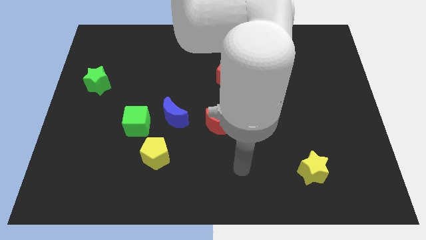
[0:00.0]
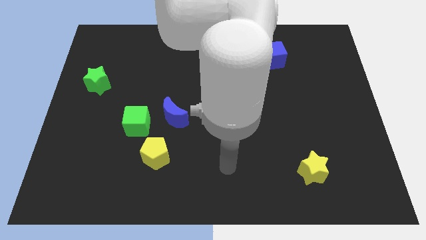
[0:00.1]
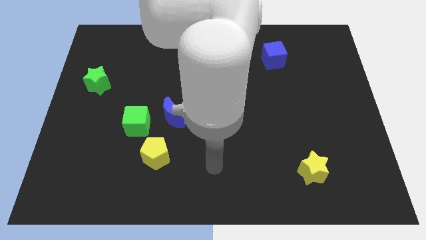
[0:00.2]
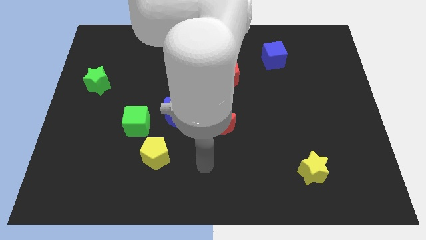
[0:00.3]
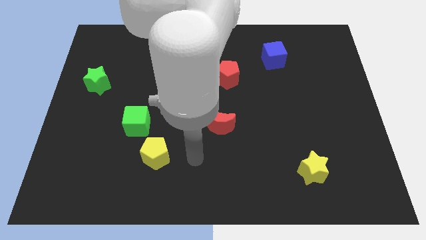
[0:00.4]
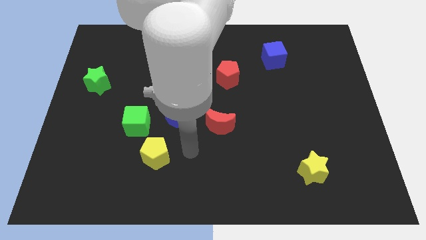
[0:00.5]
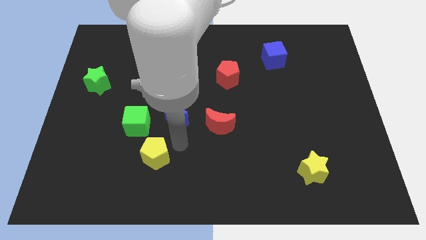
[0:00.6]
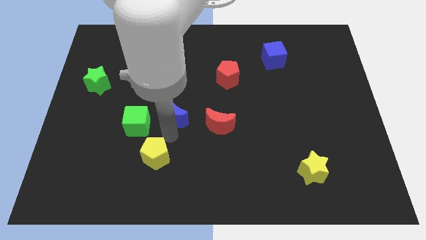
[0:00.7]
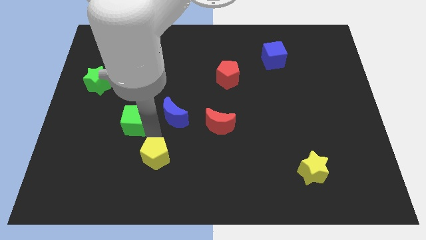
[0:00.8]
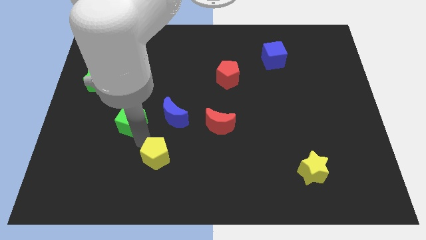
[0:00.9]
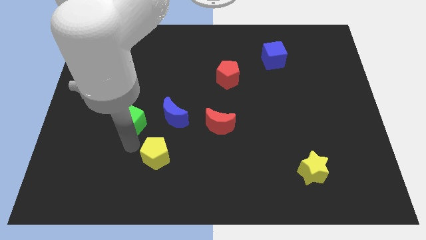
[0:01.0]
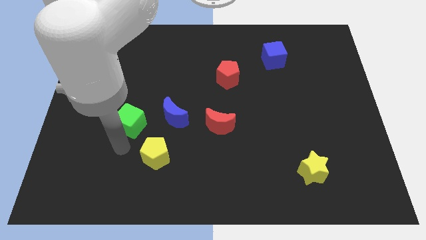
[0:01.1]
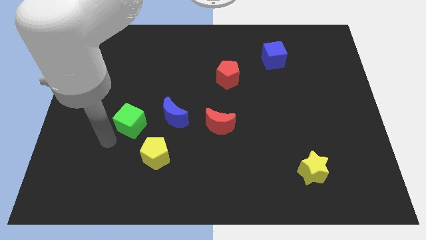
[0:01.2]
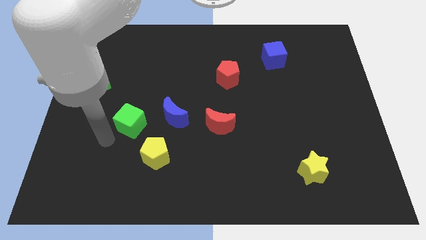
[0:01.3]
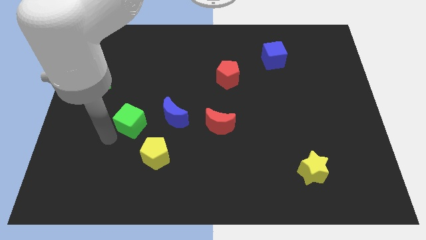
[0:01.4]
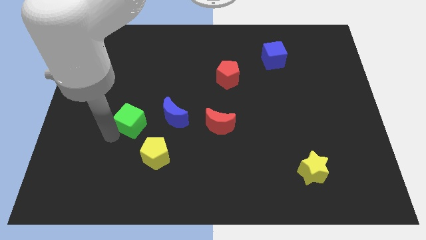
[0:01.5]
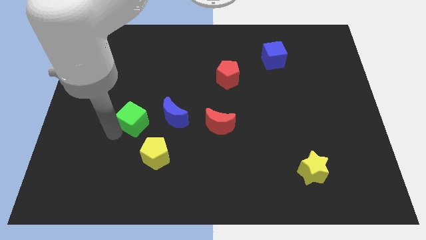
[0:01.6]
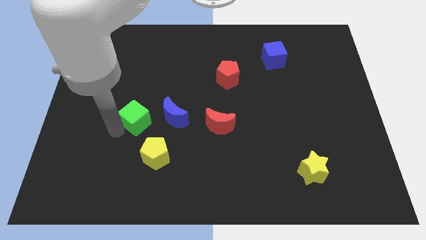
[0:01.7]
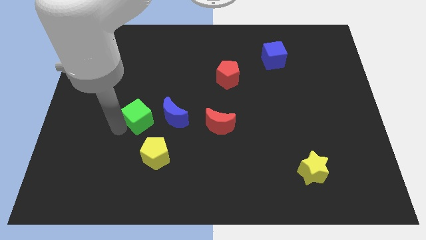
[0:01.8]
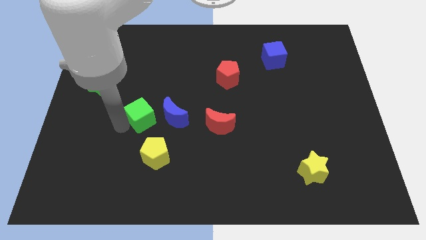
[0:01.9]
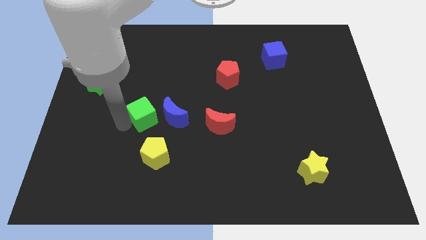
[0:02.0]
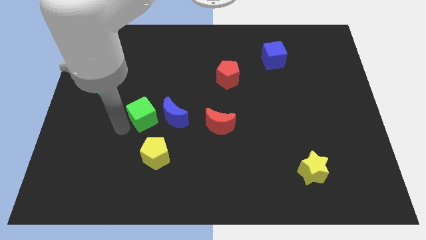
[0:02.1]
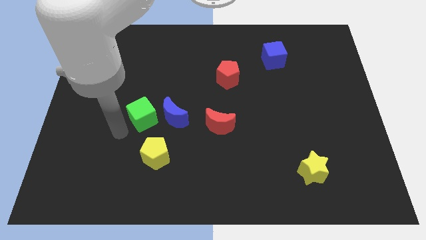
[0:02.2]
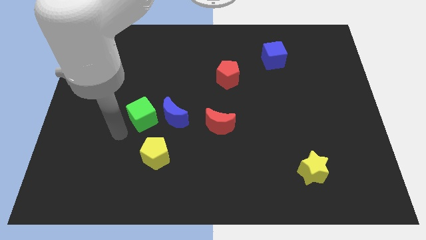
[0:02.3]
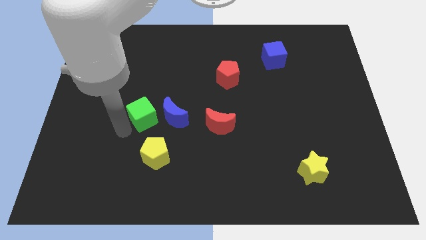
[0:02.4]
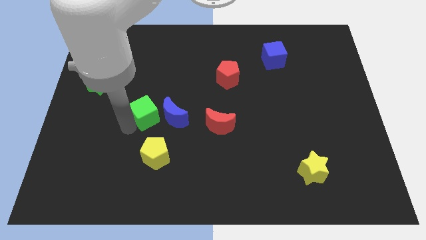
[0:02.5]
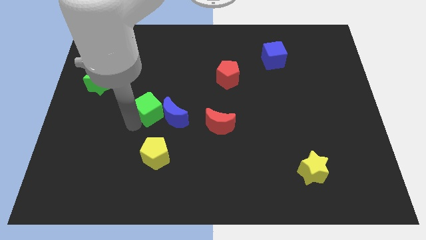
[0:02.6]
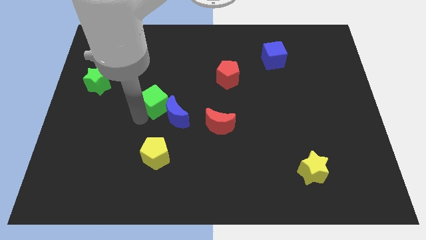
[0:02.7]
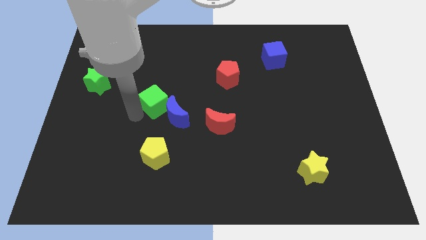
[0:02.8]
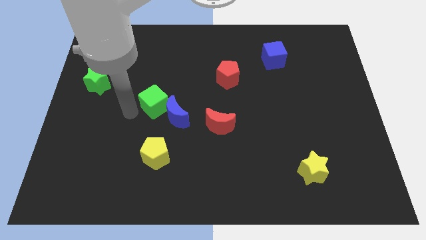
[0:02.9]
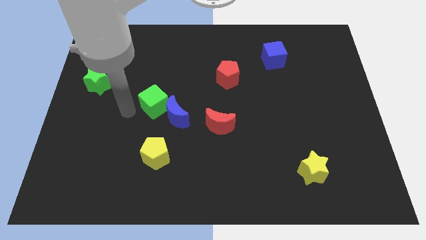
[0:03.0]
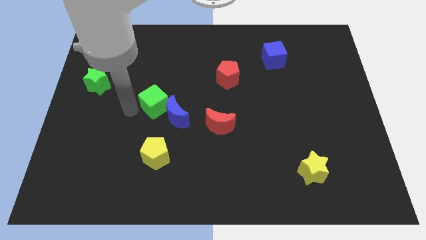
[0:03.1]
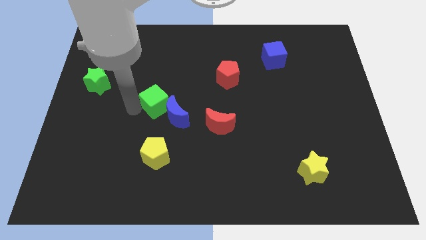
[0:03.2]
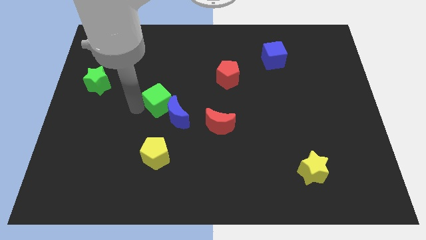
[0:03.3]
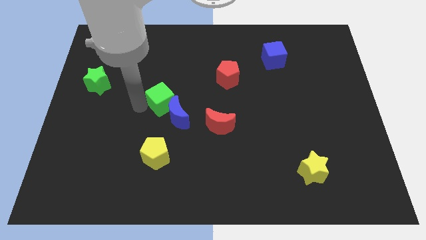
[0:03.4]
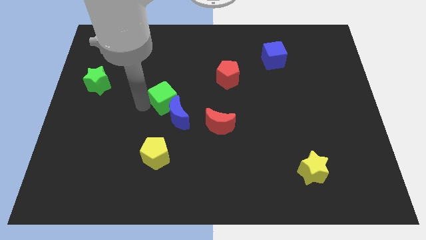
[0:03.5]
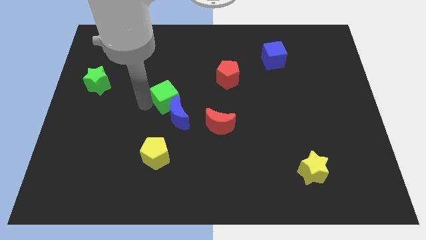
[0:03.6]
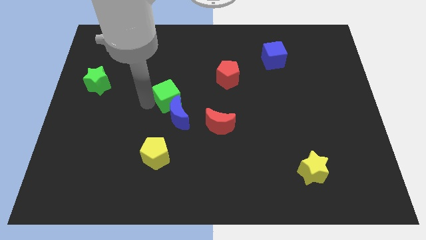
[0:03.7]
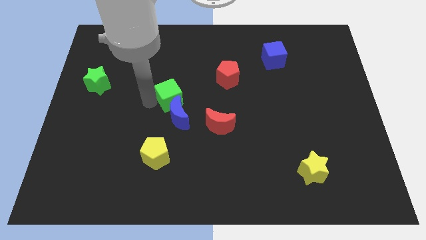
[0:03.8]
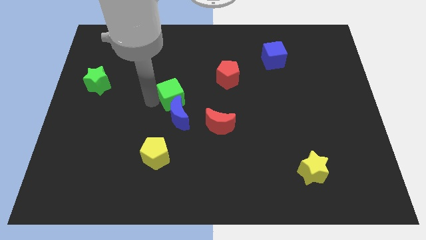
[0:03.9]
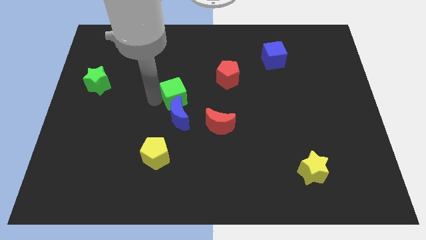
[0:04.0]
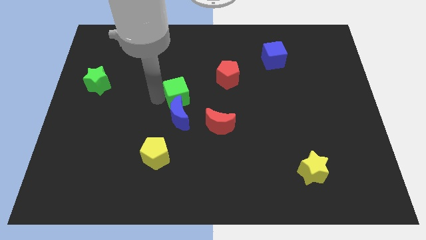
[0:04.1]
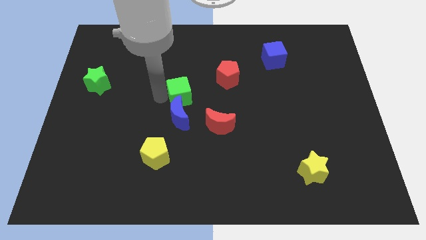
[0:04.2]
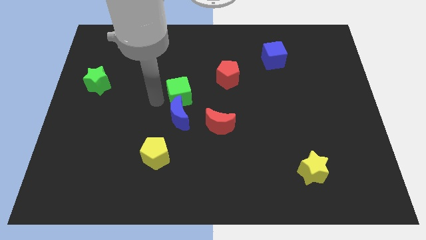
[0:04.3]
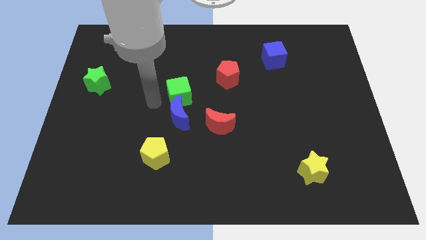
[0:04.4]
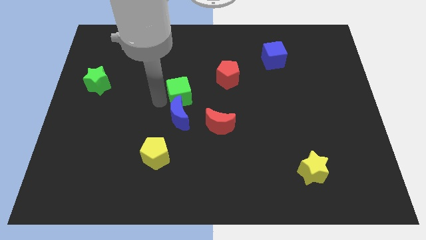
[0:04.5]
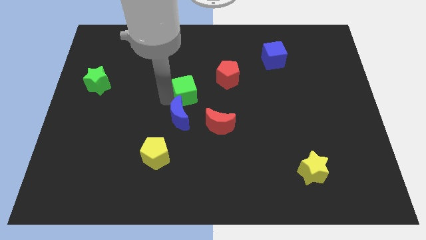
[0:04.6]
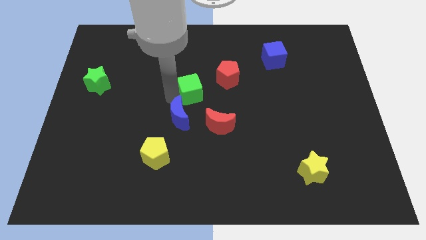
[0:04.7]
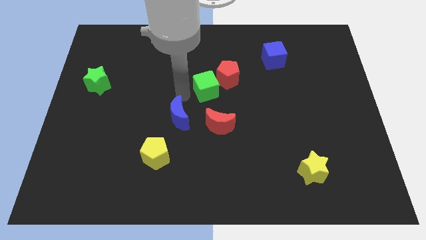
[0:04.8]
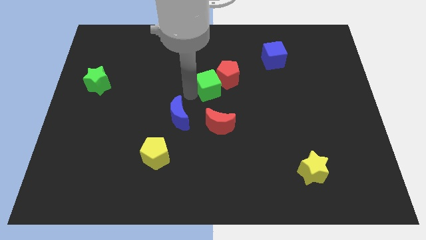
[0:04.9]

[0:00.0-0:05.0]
push the green cube to the red pentagon

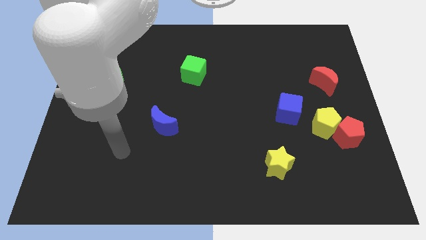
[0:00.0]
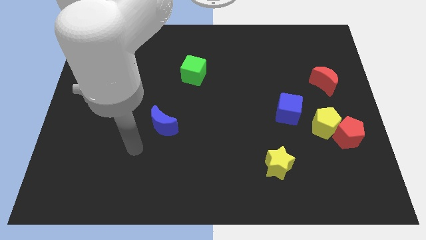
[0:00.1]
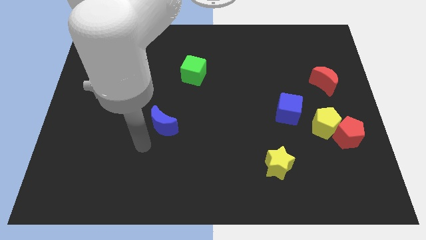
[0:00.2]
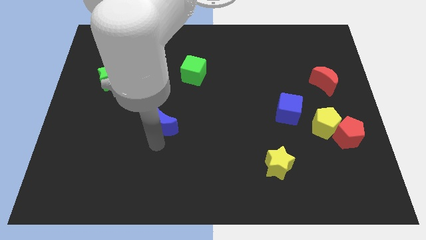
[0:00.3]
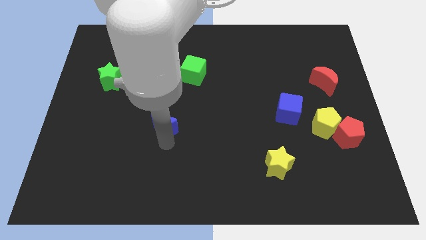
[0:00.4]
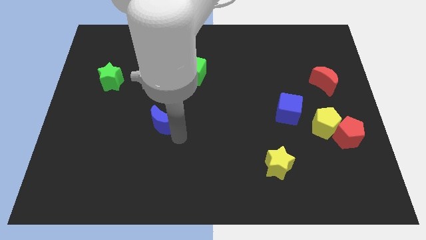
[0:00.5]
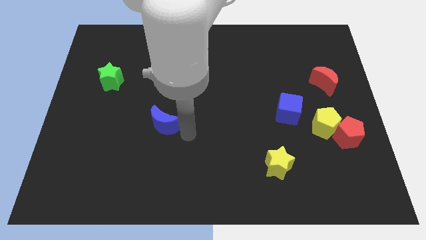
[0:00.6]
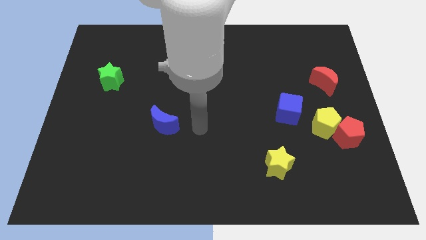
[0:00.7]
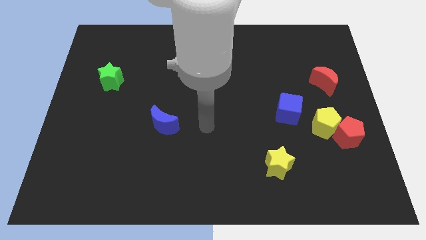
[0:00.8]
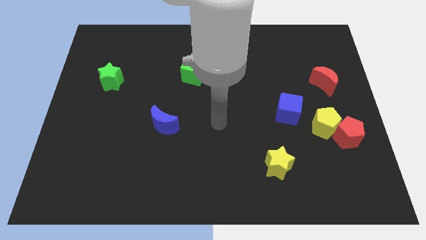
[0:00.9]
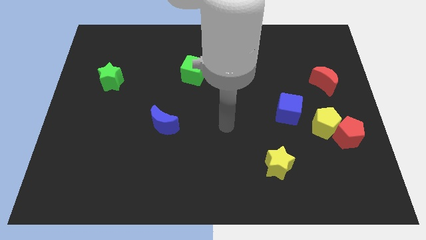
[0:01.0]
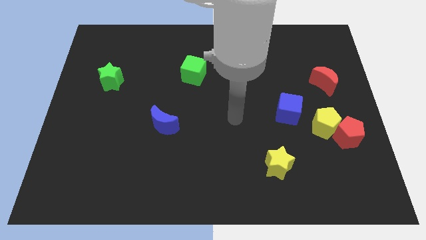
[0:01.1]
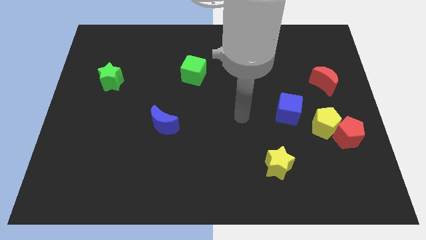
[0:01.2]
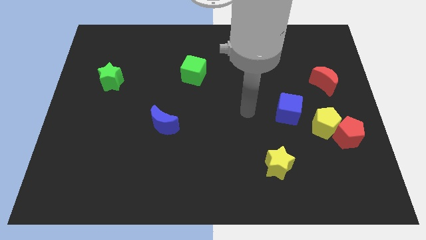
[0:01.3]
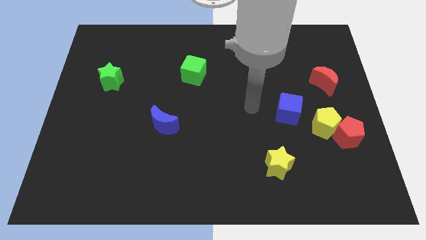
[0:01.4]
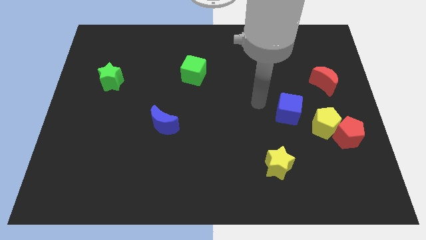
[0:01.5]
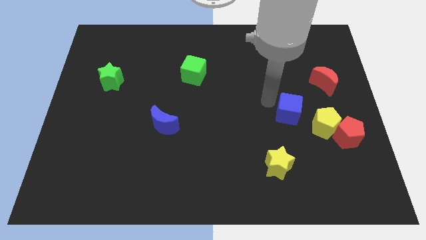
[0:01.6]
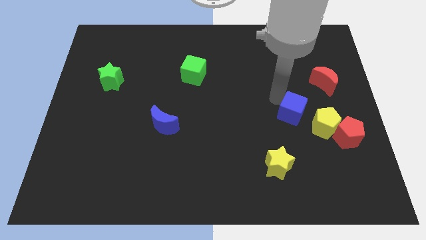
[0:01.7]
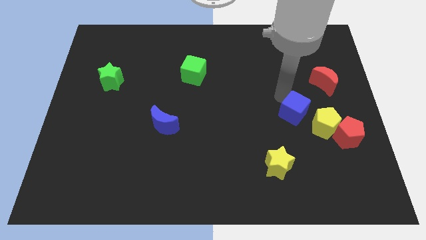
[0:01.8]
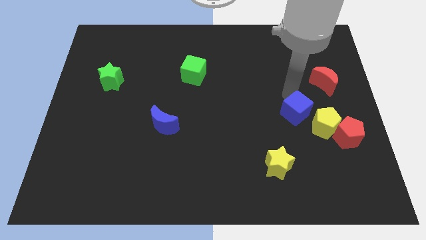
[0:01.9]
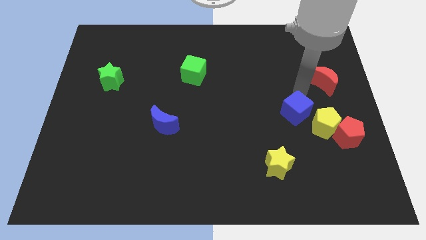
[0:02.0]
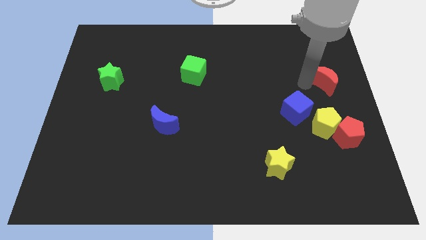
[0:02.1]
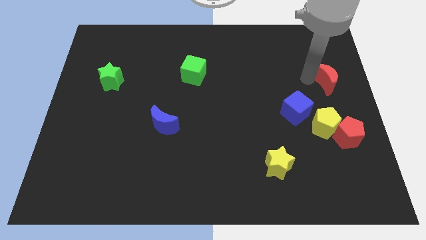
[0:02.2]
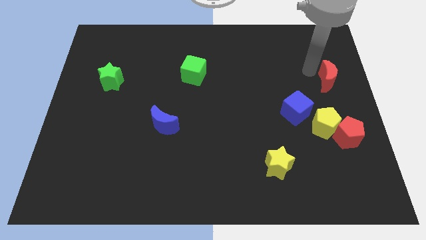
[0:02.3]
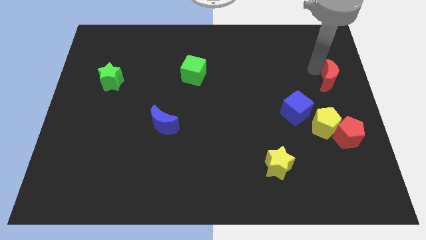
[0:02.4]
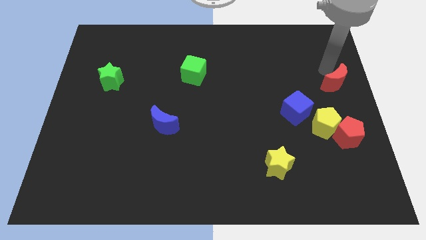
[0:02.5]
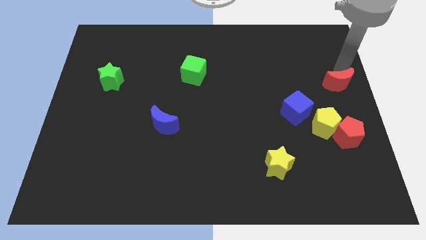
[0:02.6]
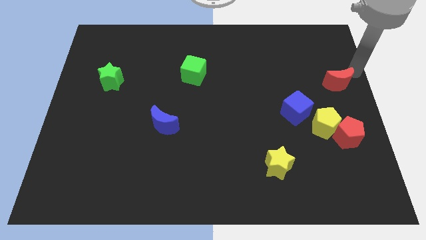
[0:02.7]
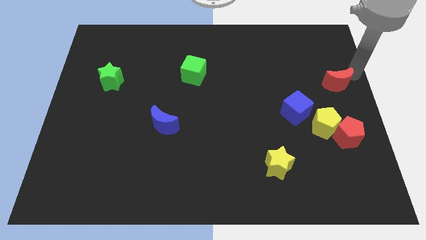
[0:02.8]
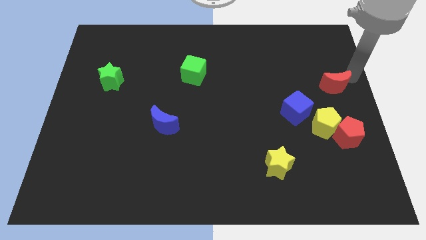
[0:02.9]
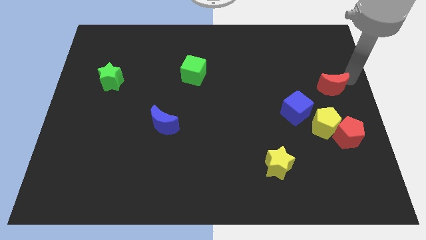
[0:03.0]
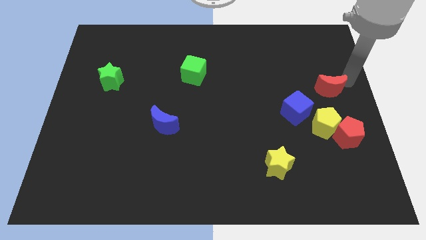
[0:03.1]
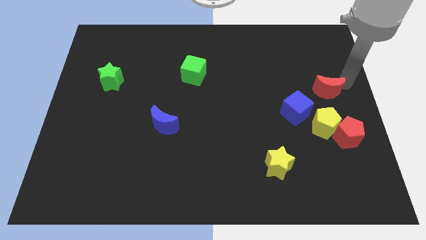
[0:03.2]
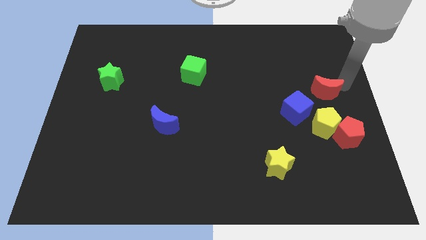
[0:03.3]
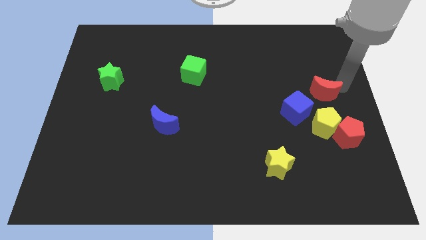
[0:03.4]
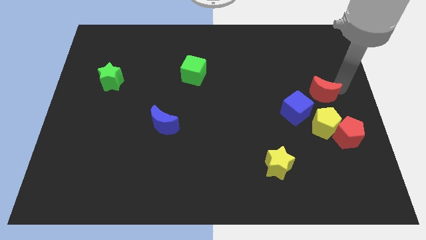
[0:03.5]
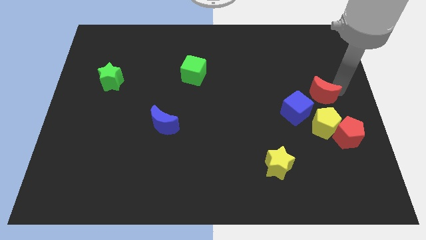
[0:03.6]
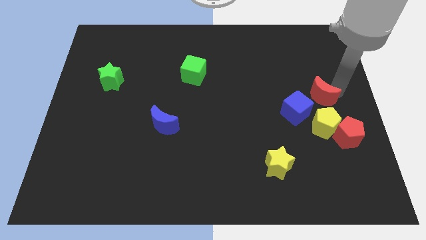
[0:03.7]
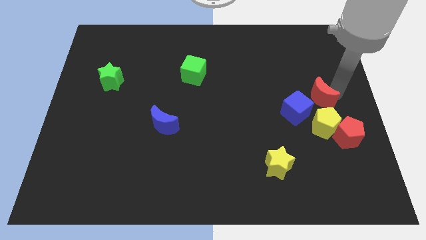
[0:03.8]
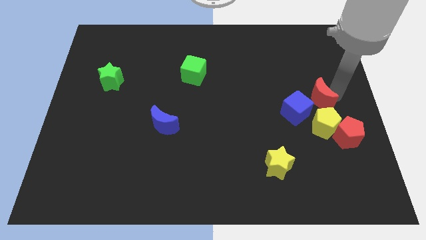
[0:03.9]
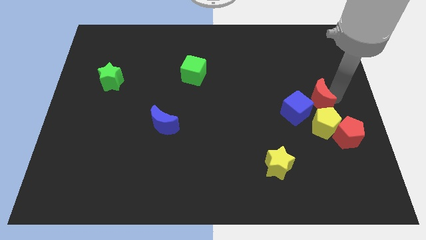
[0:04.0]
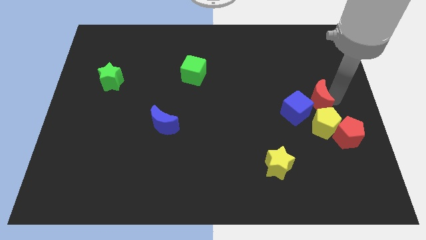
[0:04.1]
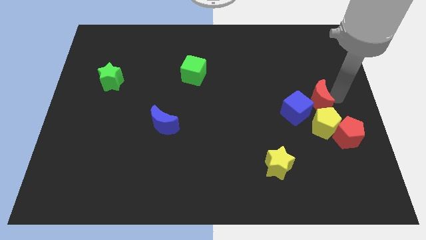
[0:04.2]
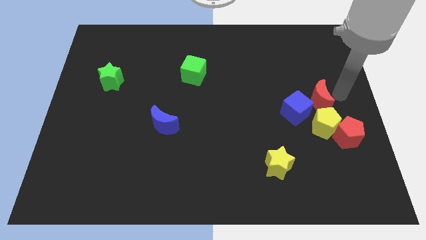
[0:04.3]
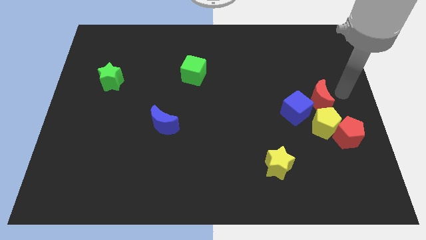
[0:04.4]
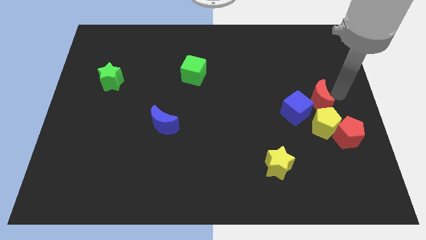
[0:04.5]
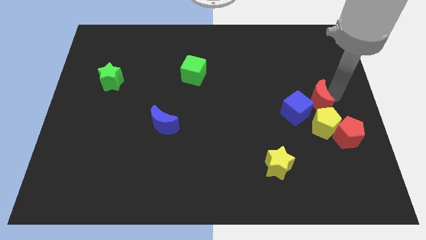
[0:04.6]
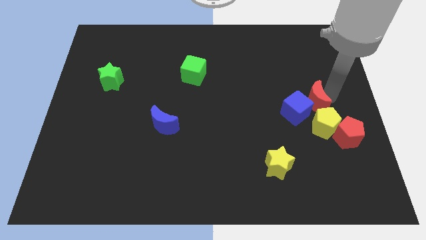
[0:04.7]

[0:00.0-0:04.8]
put the red moon close to the blue cube
